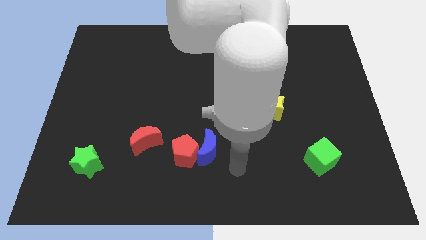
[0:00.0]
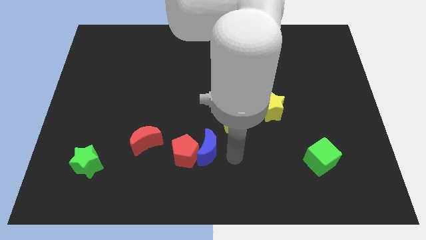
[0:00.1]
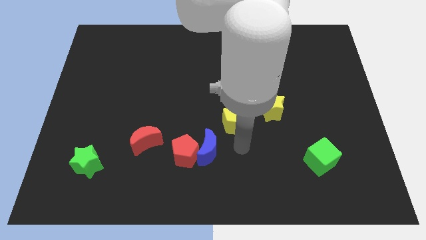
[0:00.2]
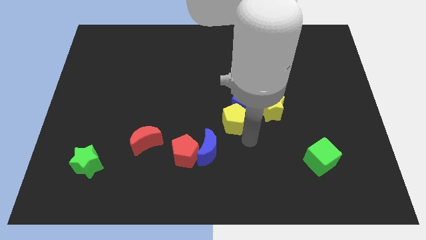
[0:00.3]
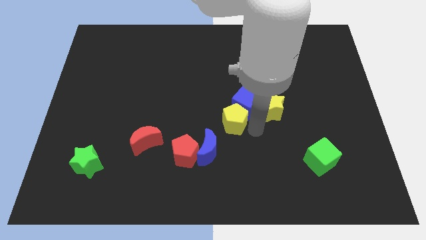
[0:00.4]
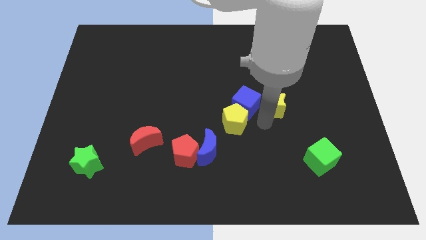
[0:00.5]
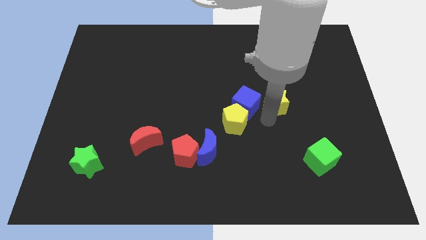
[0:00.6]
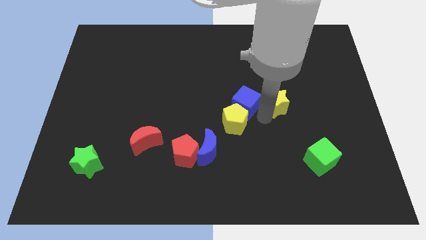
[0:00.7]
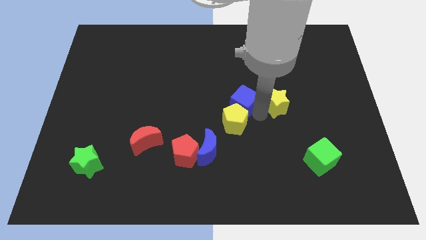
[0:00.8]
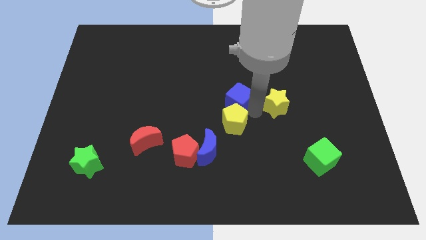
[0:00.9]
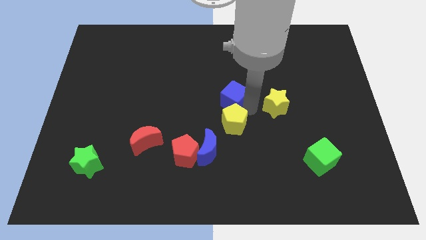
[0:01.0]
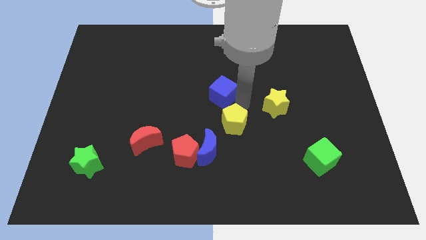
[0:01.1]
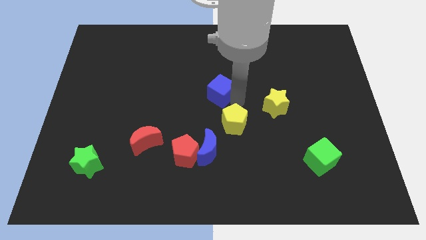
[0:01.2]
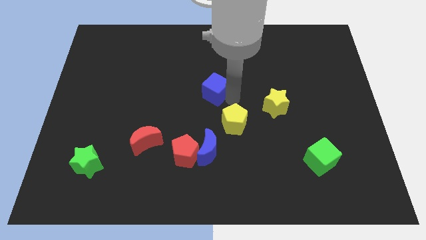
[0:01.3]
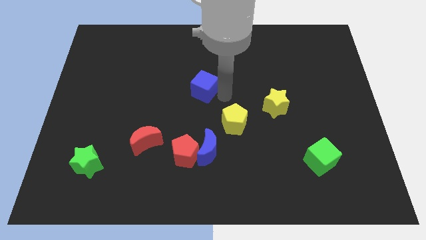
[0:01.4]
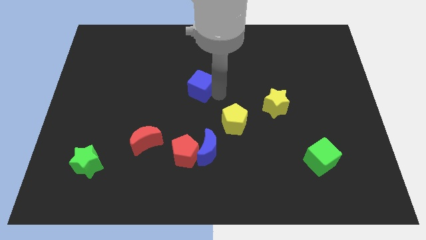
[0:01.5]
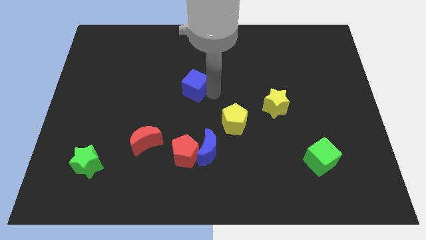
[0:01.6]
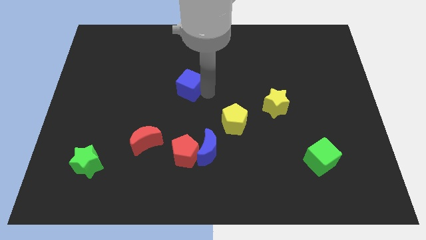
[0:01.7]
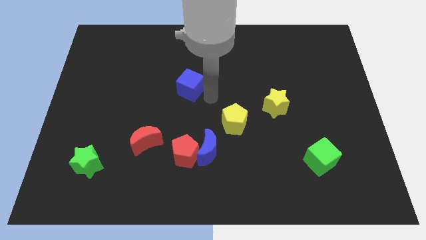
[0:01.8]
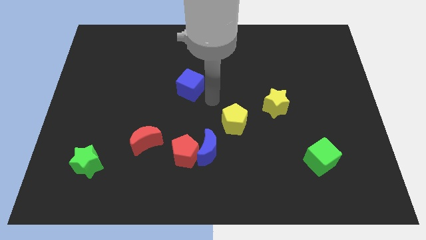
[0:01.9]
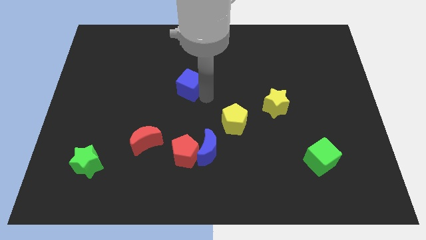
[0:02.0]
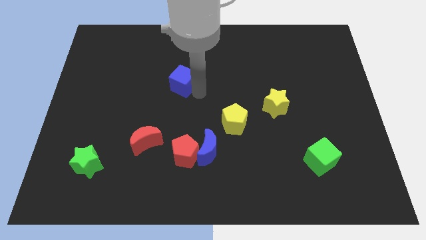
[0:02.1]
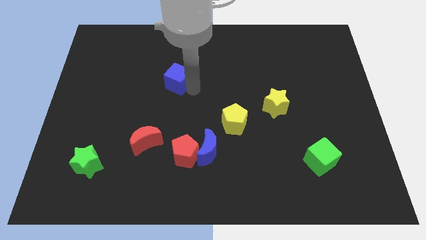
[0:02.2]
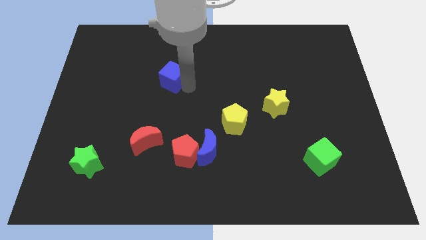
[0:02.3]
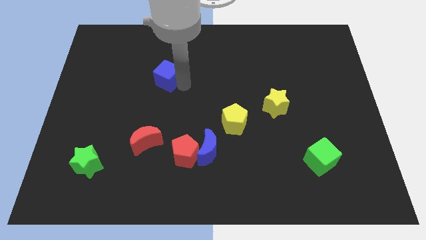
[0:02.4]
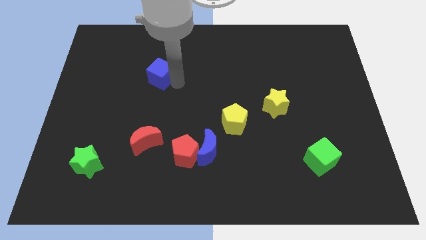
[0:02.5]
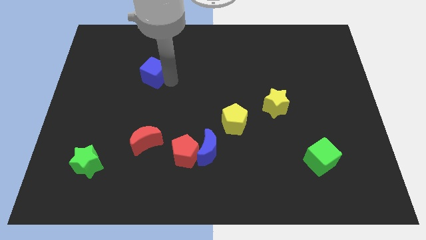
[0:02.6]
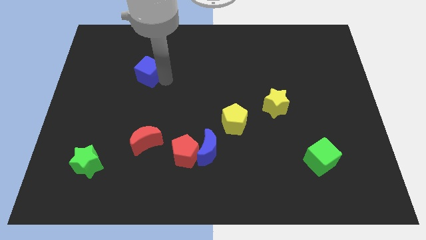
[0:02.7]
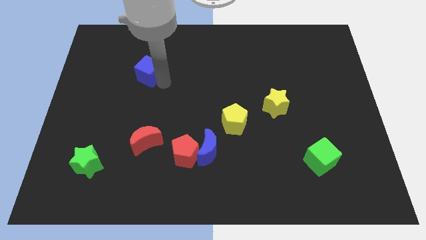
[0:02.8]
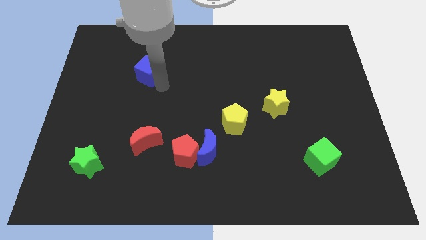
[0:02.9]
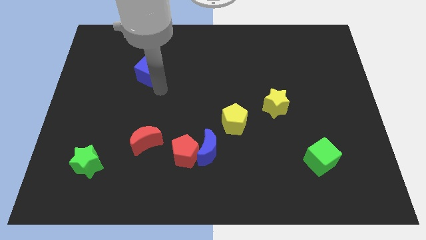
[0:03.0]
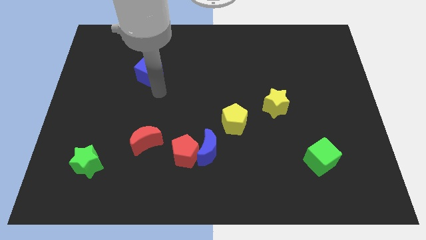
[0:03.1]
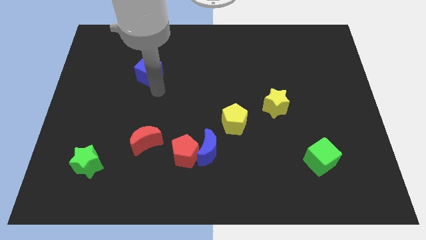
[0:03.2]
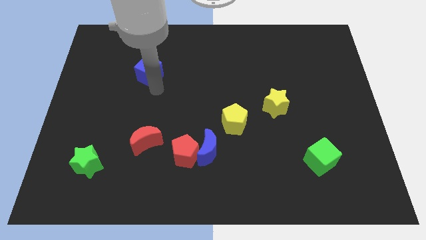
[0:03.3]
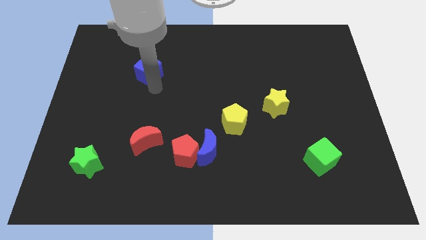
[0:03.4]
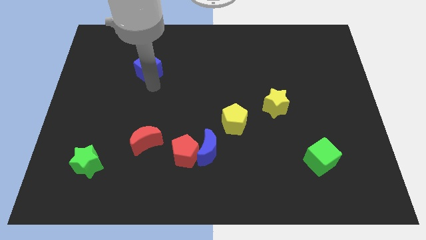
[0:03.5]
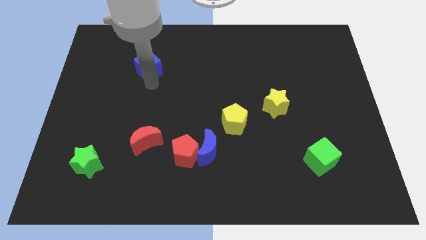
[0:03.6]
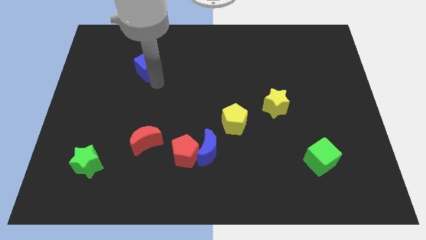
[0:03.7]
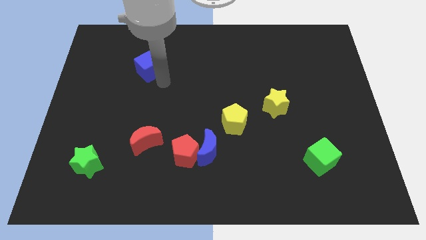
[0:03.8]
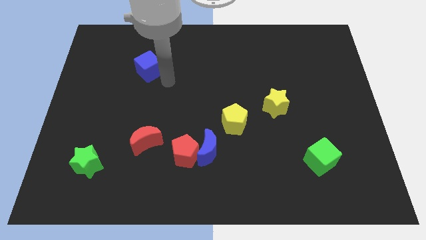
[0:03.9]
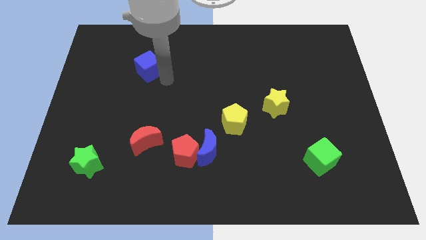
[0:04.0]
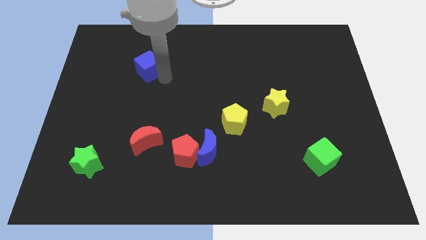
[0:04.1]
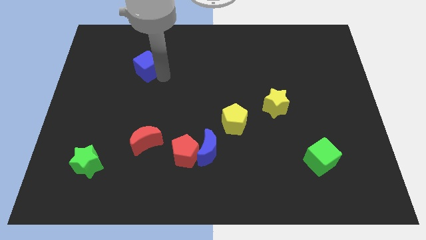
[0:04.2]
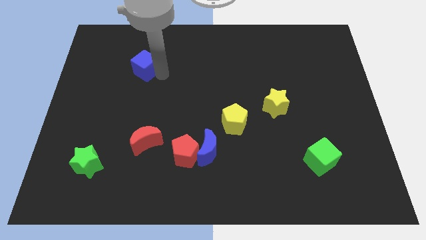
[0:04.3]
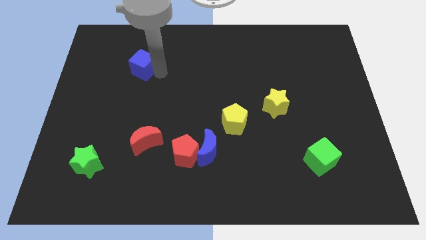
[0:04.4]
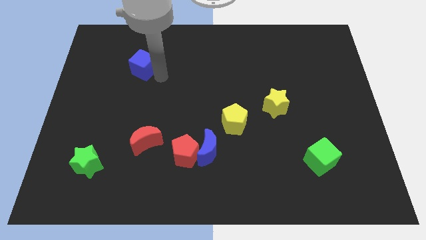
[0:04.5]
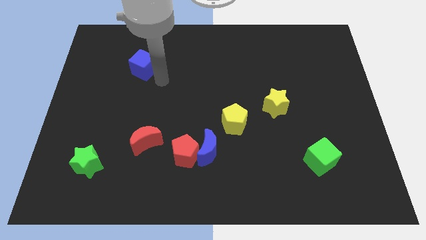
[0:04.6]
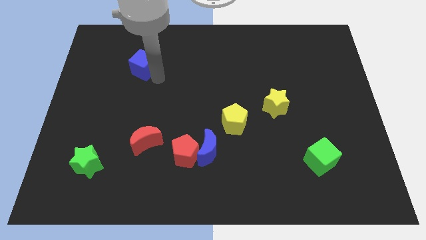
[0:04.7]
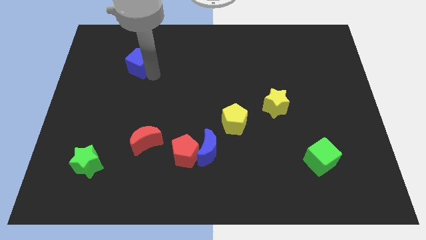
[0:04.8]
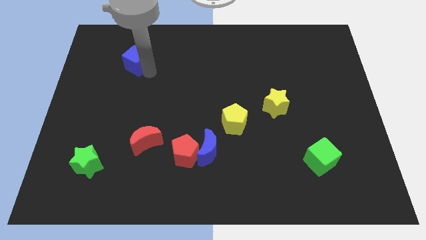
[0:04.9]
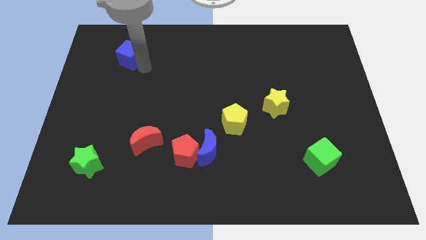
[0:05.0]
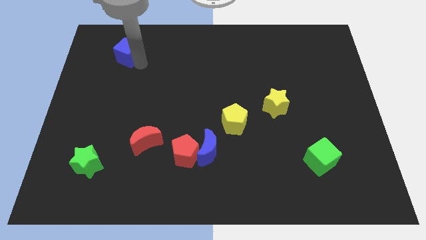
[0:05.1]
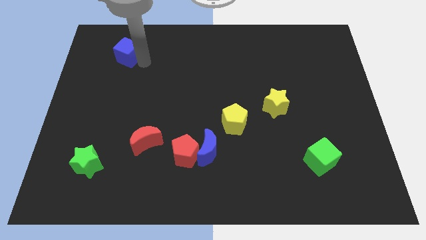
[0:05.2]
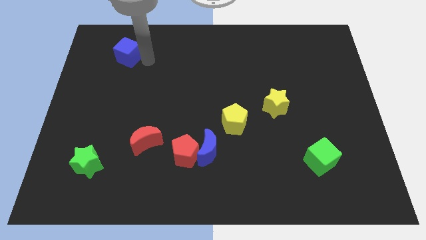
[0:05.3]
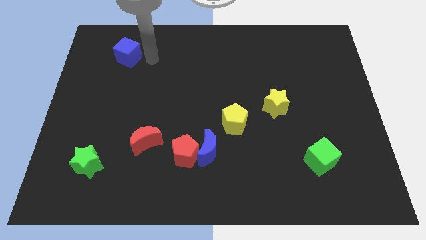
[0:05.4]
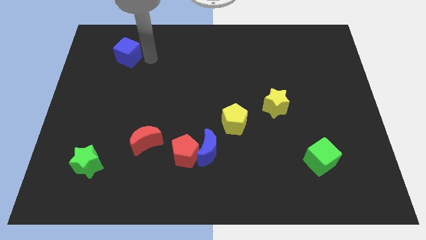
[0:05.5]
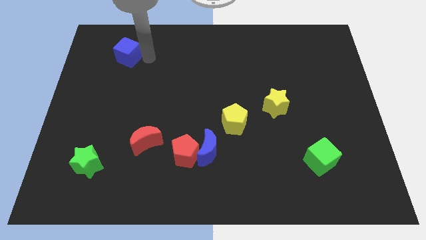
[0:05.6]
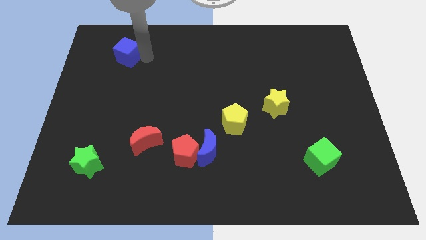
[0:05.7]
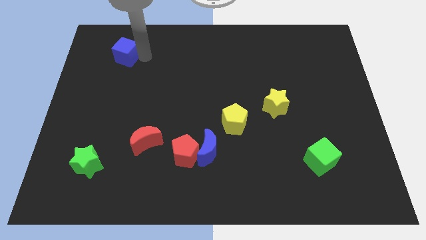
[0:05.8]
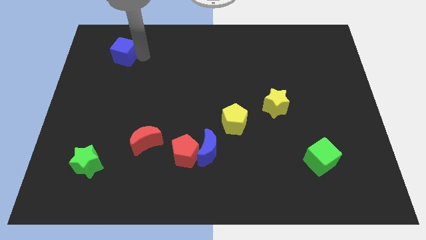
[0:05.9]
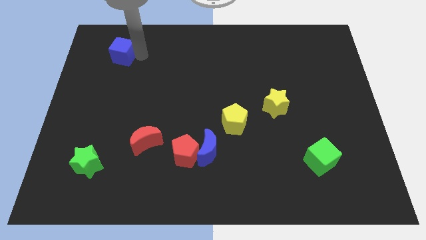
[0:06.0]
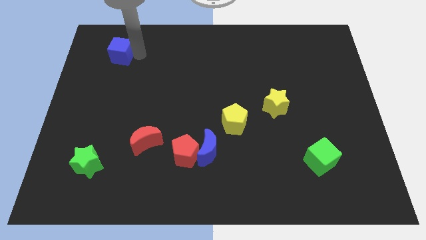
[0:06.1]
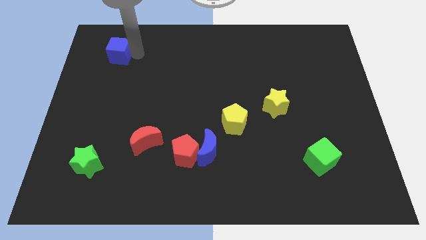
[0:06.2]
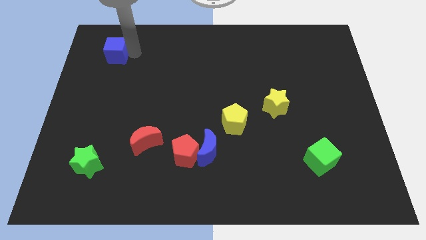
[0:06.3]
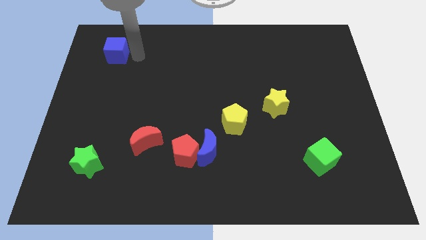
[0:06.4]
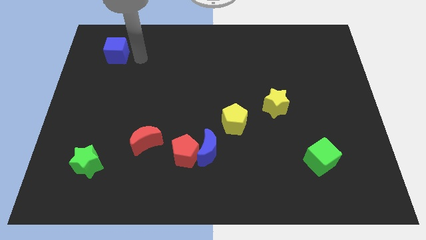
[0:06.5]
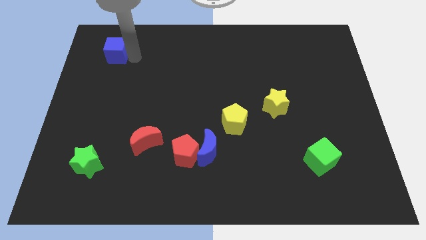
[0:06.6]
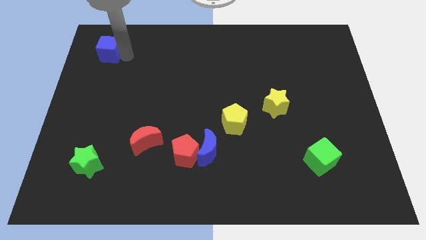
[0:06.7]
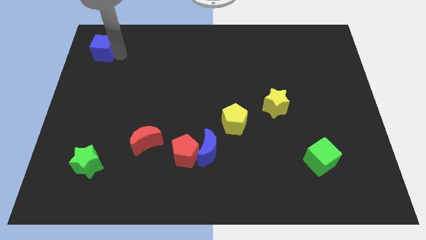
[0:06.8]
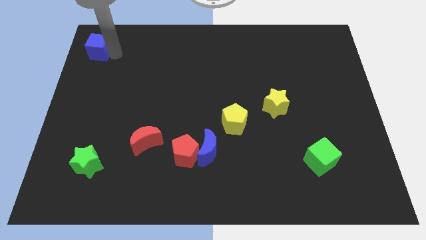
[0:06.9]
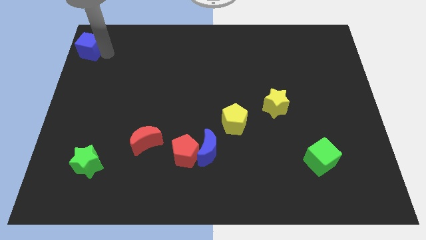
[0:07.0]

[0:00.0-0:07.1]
push the blue cube to the top left corner
